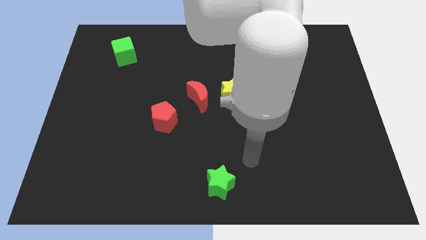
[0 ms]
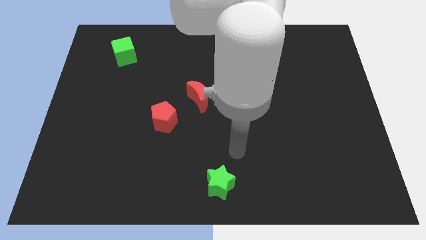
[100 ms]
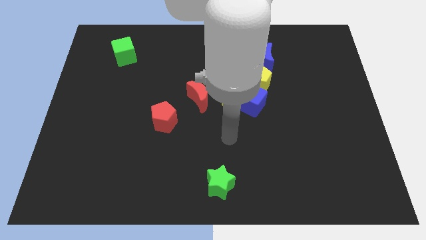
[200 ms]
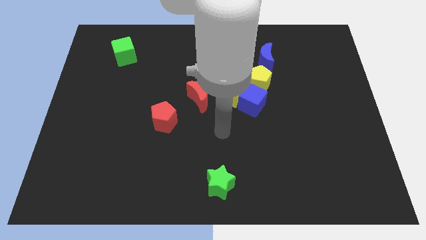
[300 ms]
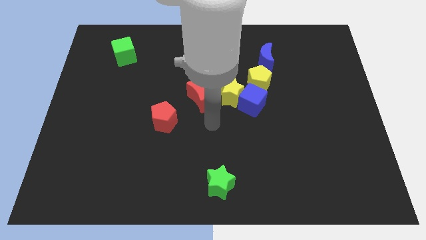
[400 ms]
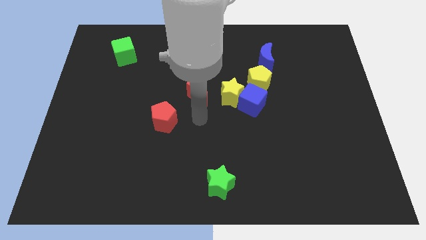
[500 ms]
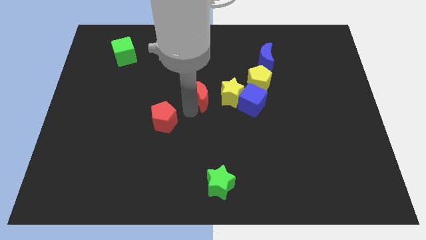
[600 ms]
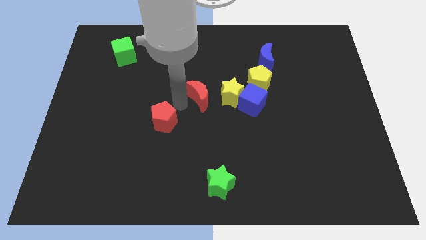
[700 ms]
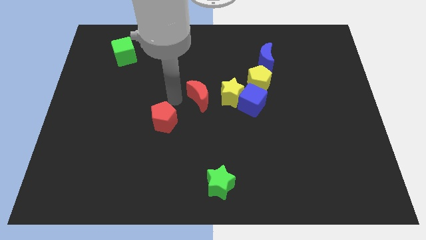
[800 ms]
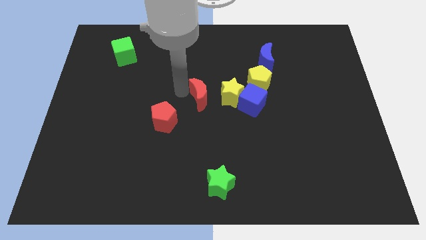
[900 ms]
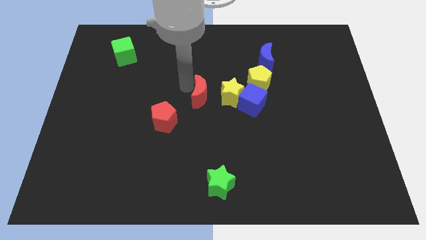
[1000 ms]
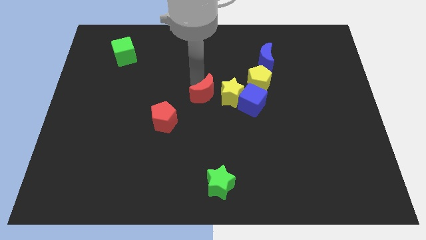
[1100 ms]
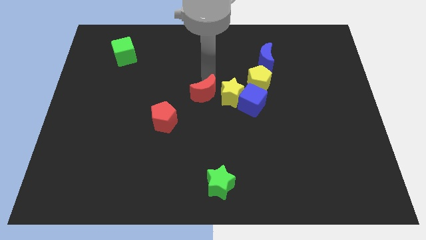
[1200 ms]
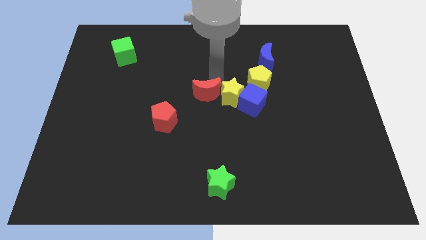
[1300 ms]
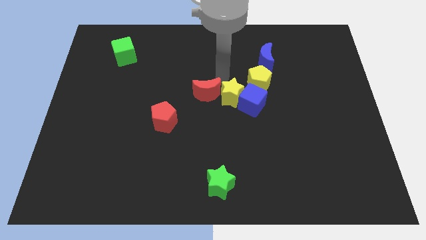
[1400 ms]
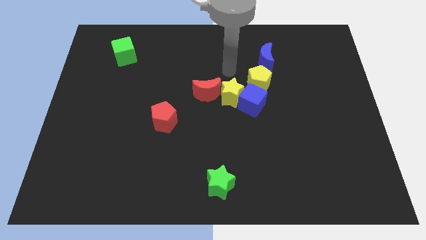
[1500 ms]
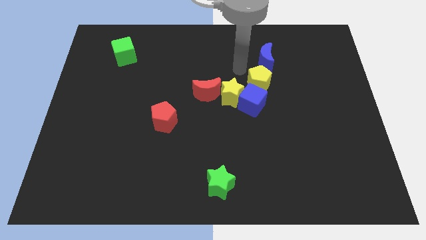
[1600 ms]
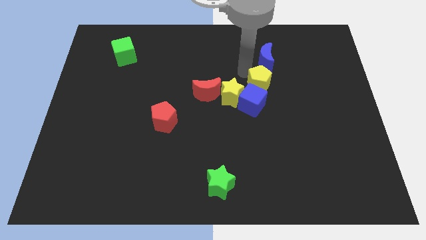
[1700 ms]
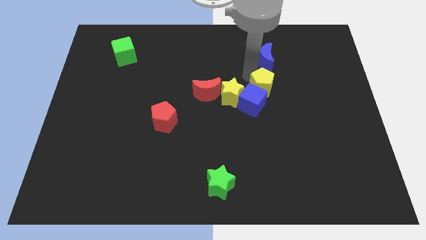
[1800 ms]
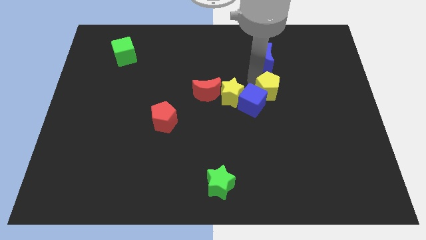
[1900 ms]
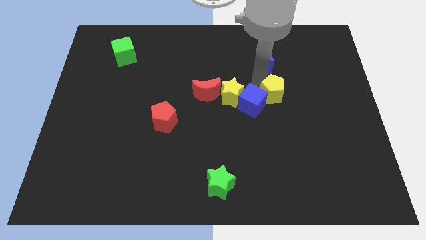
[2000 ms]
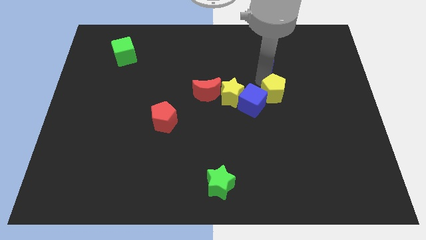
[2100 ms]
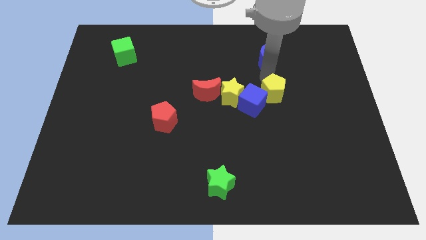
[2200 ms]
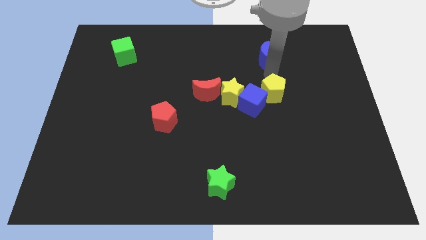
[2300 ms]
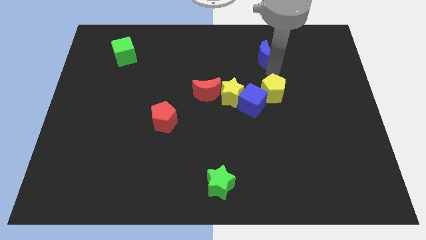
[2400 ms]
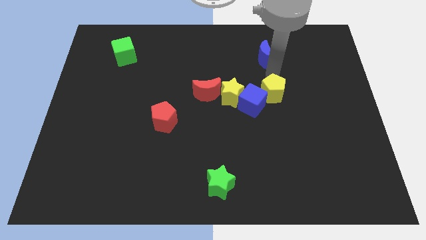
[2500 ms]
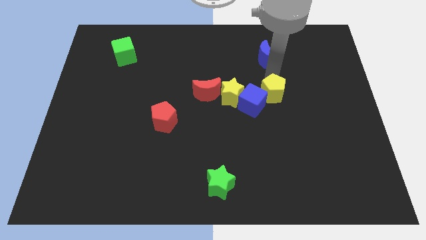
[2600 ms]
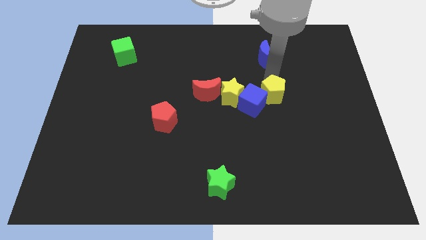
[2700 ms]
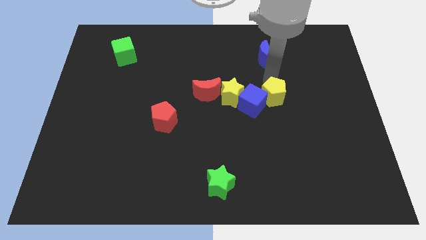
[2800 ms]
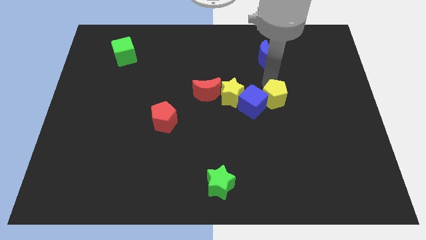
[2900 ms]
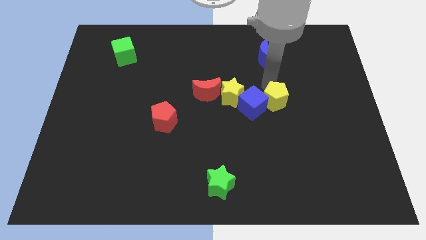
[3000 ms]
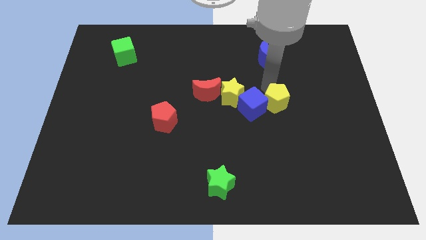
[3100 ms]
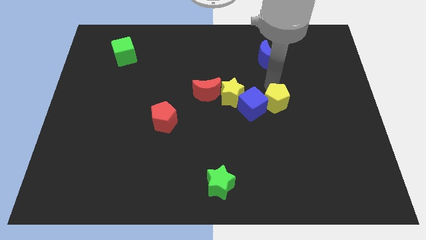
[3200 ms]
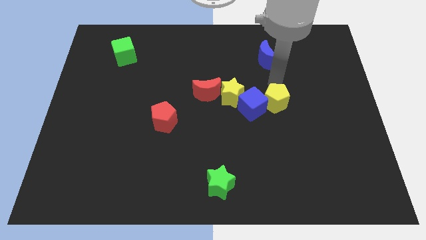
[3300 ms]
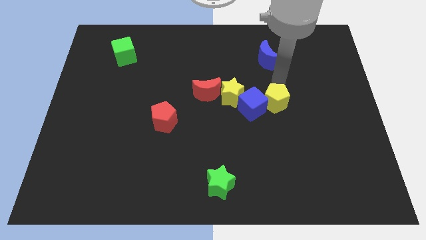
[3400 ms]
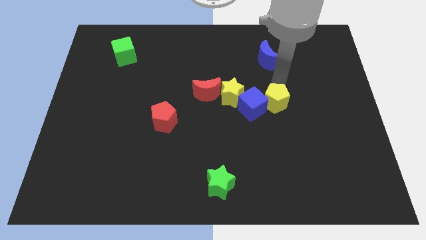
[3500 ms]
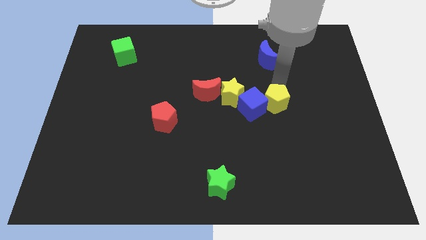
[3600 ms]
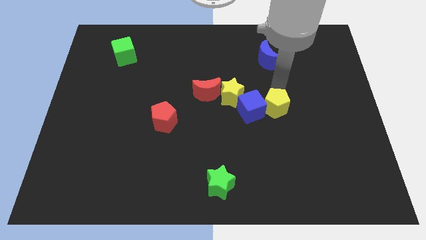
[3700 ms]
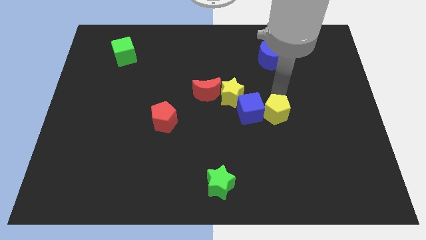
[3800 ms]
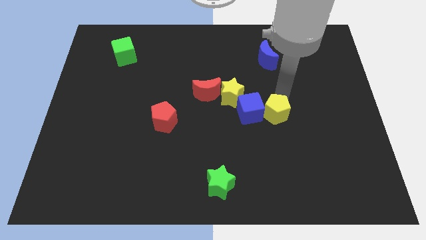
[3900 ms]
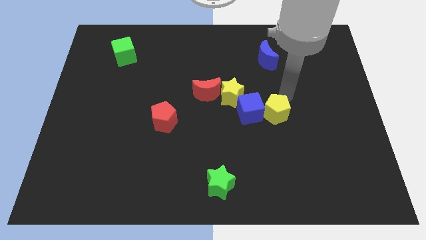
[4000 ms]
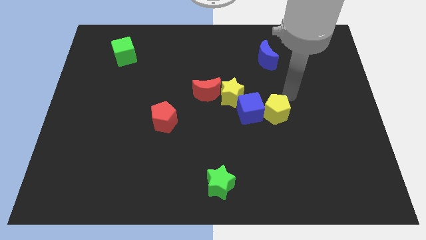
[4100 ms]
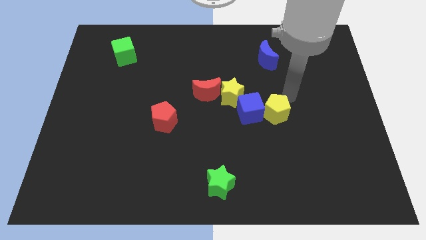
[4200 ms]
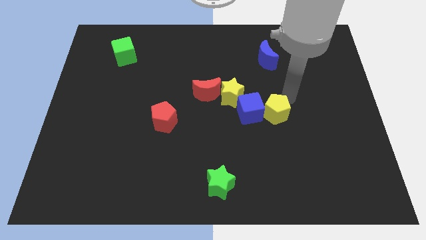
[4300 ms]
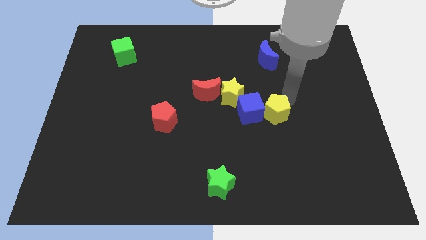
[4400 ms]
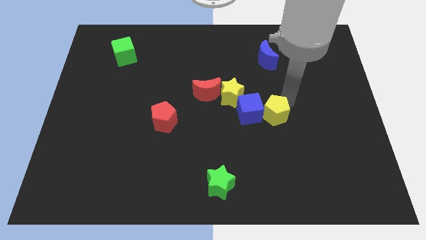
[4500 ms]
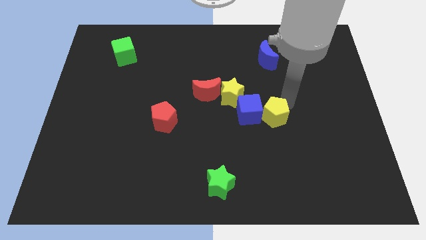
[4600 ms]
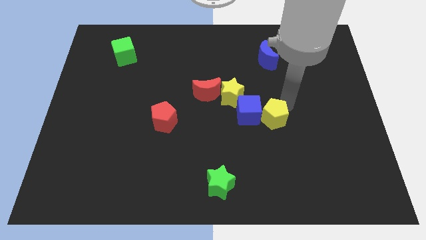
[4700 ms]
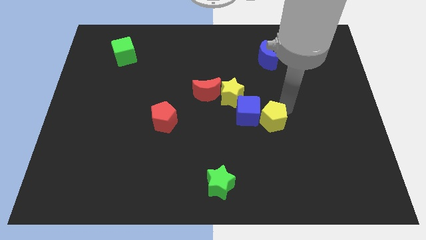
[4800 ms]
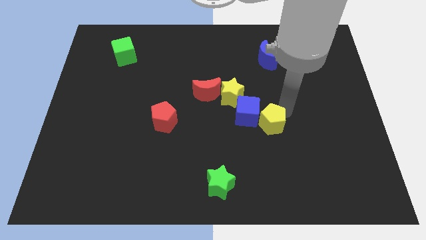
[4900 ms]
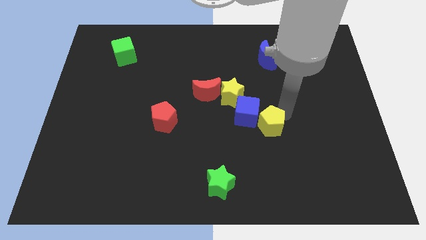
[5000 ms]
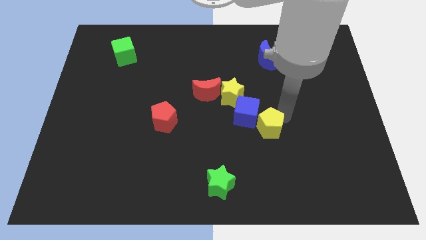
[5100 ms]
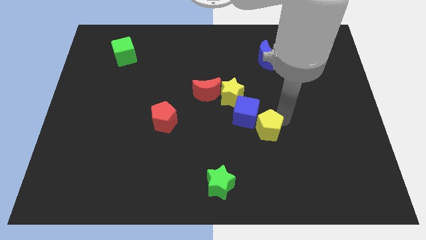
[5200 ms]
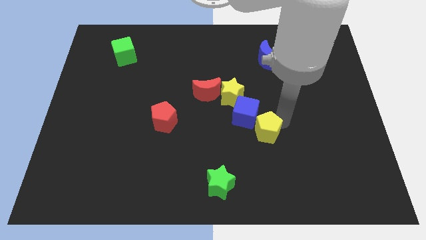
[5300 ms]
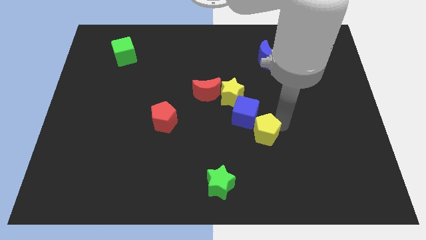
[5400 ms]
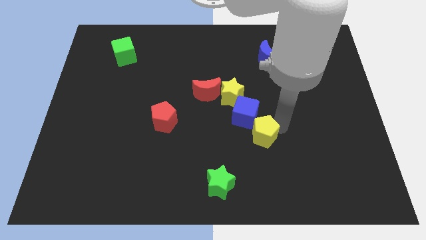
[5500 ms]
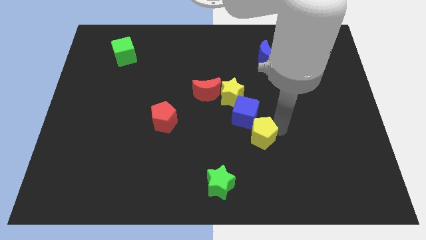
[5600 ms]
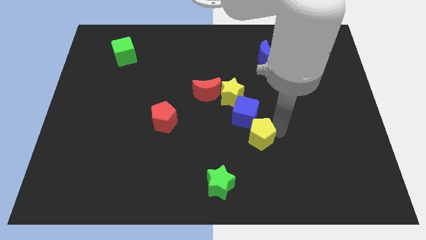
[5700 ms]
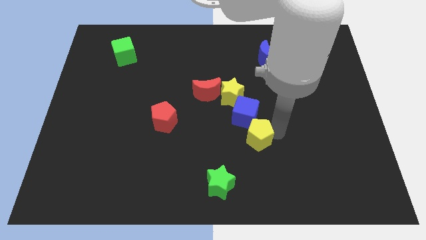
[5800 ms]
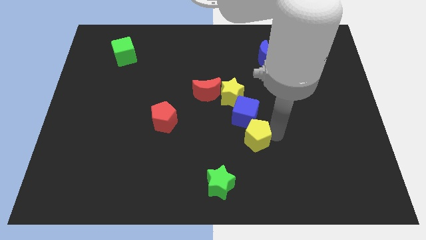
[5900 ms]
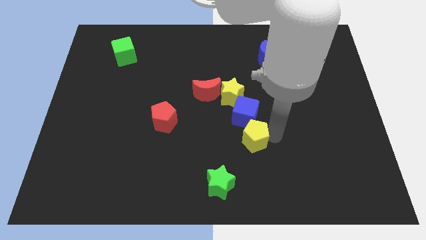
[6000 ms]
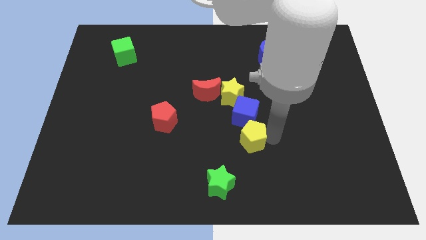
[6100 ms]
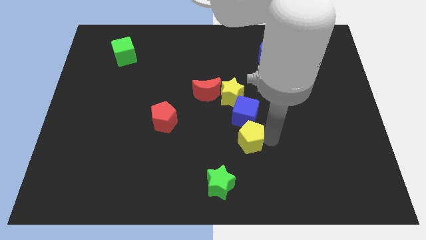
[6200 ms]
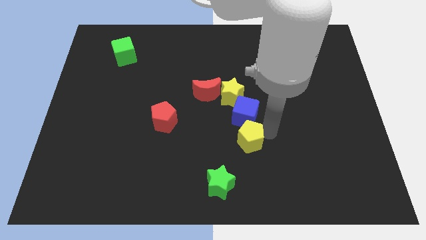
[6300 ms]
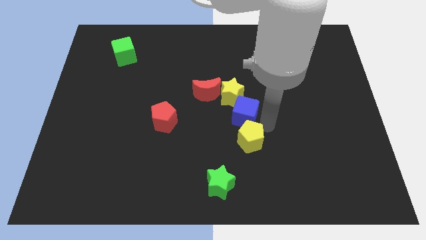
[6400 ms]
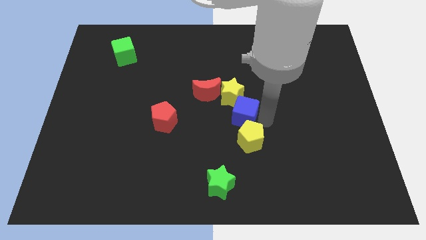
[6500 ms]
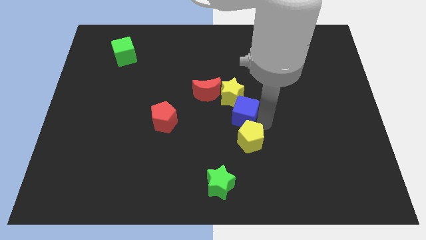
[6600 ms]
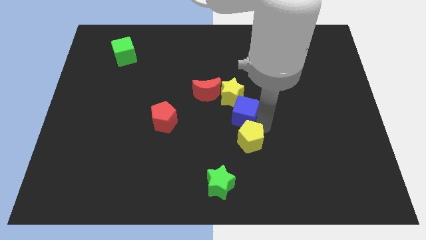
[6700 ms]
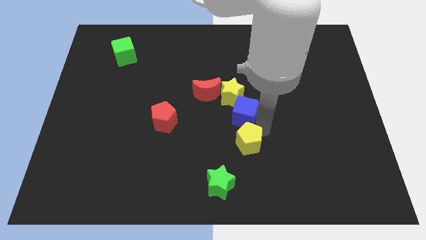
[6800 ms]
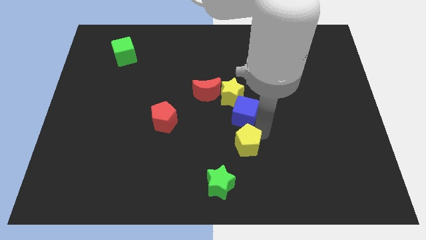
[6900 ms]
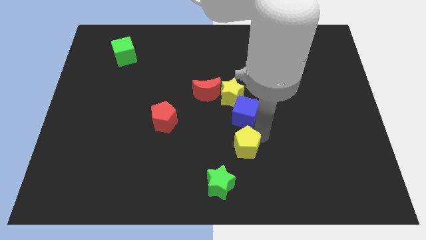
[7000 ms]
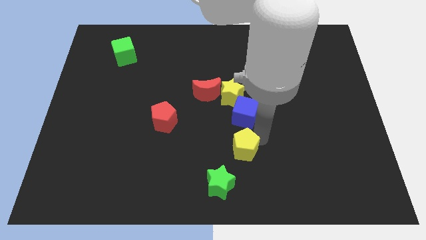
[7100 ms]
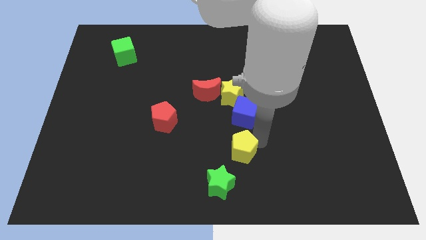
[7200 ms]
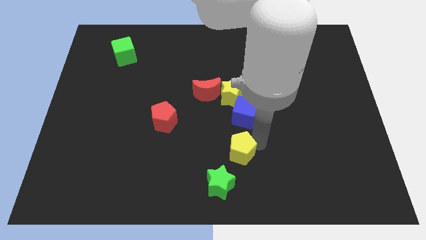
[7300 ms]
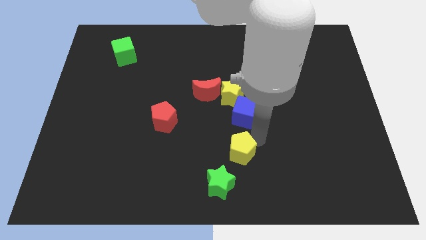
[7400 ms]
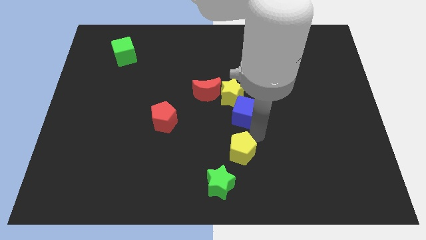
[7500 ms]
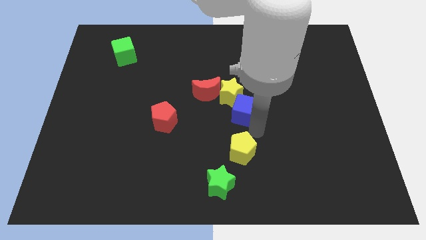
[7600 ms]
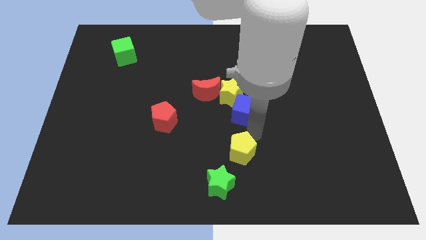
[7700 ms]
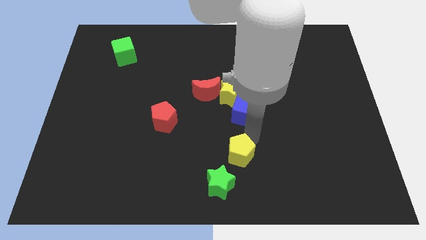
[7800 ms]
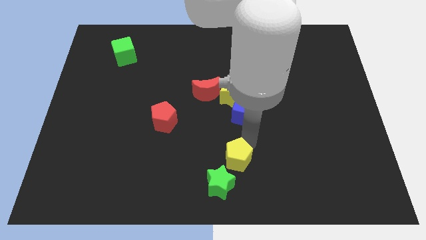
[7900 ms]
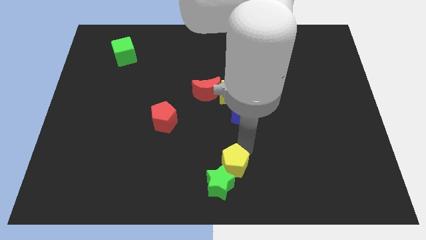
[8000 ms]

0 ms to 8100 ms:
slide the yellow pentagon to the green star
